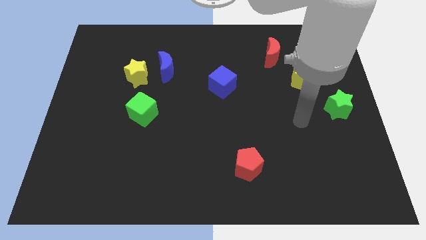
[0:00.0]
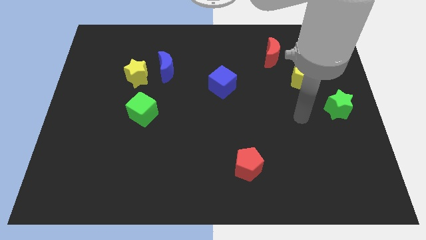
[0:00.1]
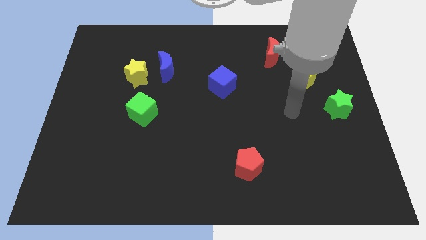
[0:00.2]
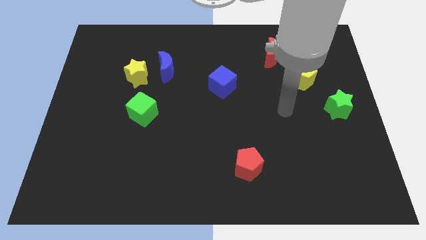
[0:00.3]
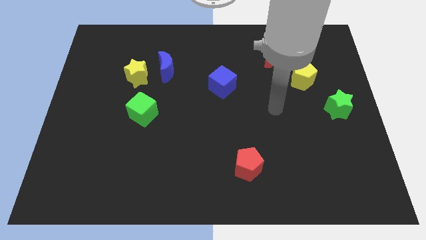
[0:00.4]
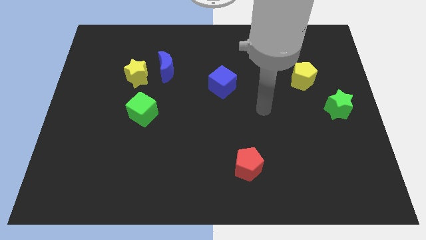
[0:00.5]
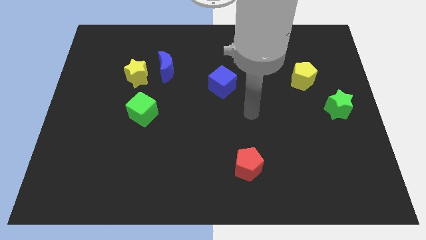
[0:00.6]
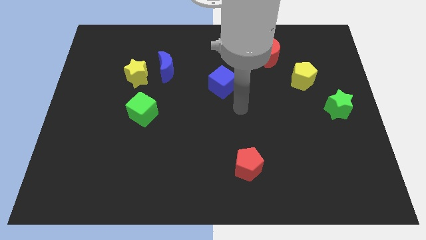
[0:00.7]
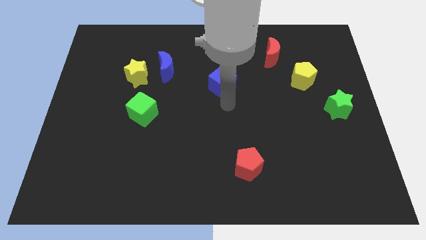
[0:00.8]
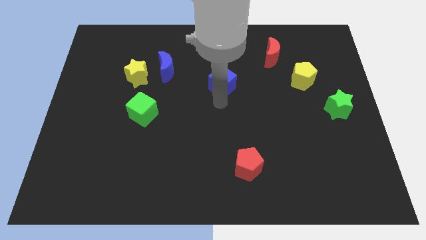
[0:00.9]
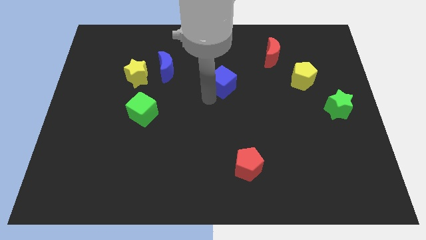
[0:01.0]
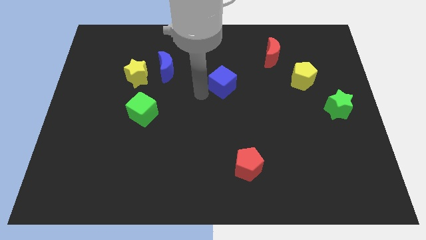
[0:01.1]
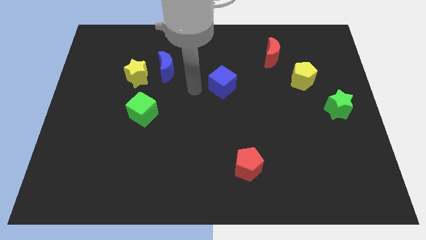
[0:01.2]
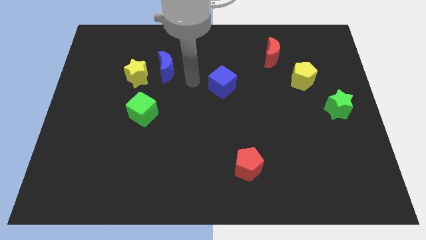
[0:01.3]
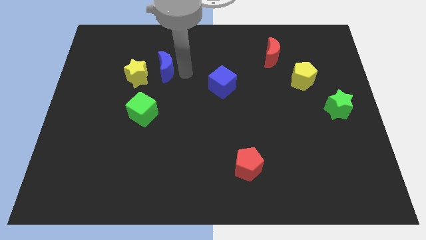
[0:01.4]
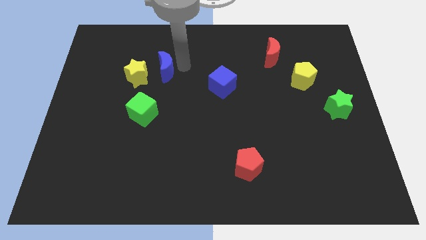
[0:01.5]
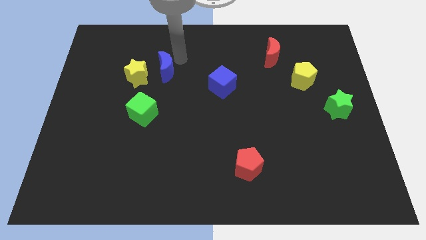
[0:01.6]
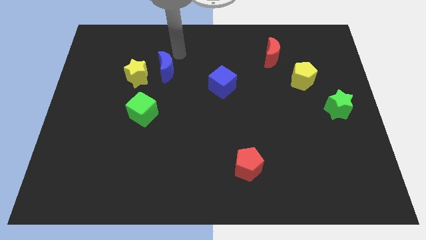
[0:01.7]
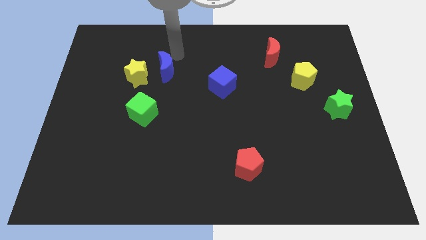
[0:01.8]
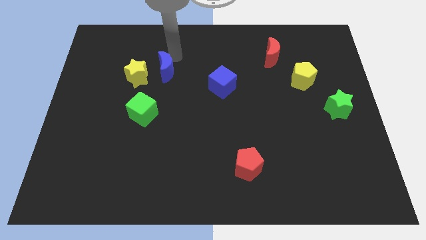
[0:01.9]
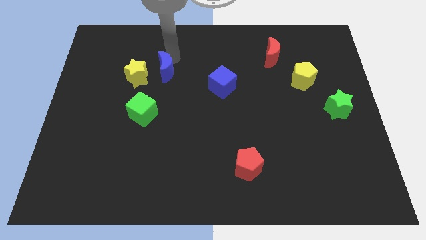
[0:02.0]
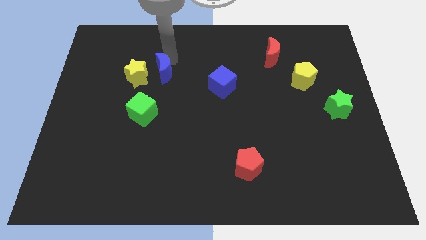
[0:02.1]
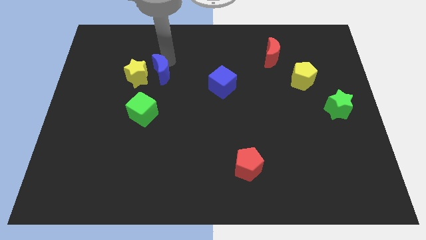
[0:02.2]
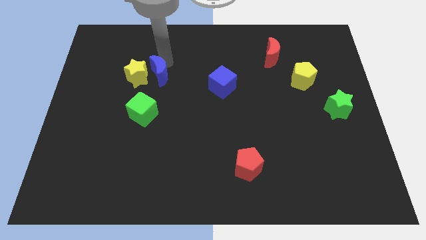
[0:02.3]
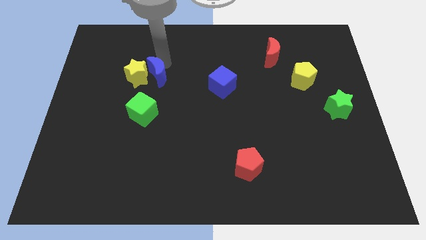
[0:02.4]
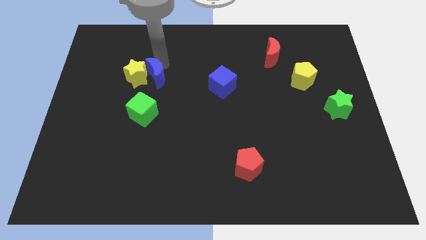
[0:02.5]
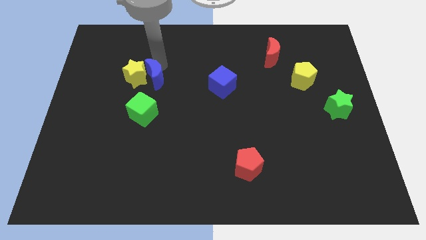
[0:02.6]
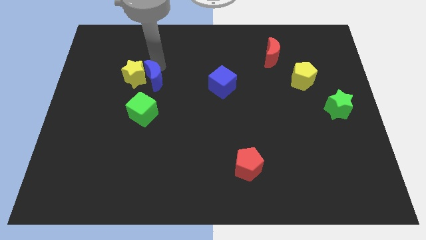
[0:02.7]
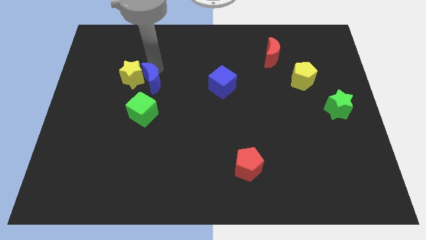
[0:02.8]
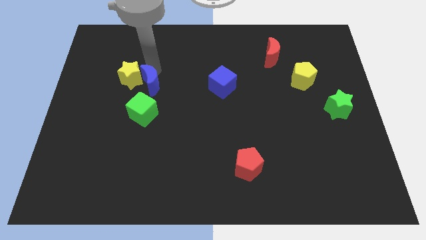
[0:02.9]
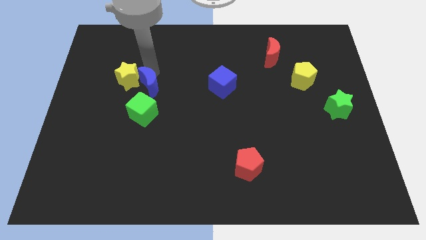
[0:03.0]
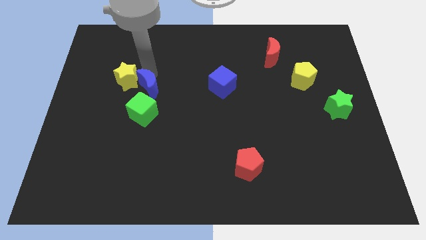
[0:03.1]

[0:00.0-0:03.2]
slide the blue moon slightly downwards and then to the left

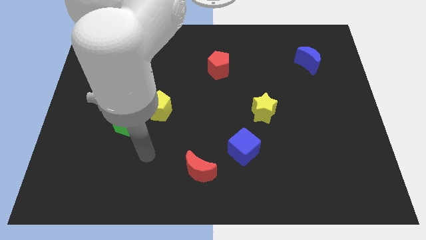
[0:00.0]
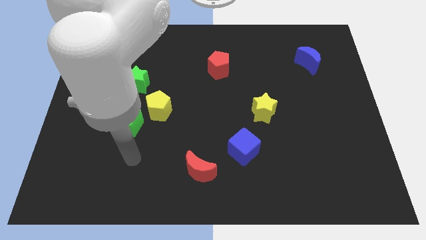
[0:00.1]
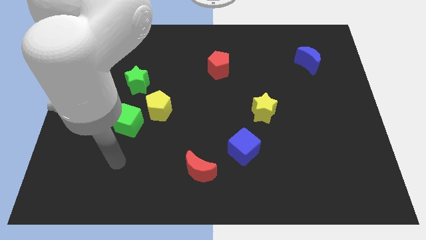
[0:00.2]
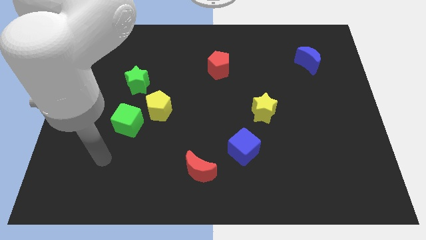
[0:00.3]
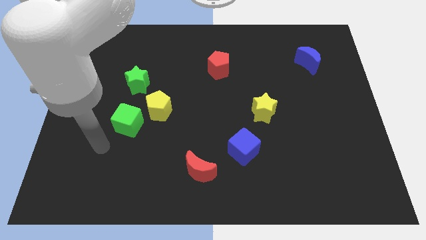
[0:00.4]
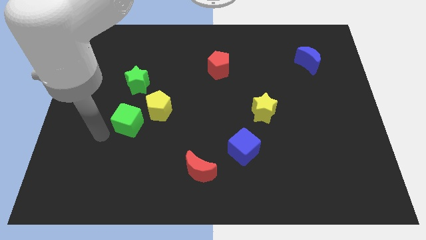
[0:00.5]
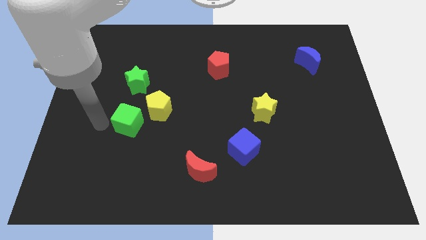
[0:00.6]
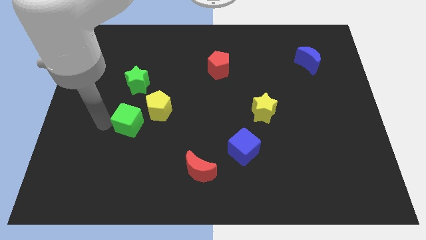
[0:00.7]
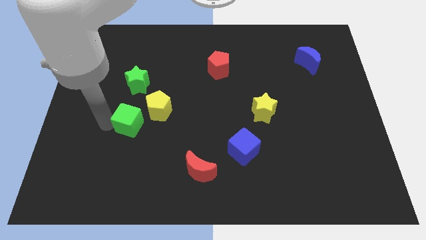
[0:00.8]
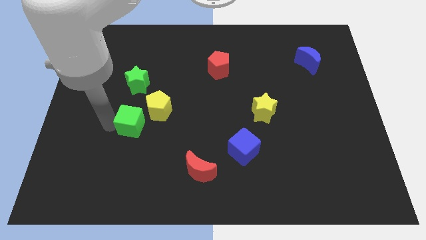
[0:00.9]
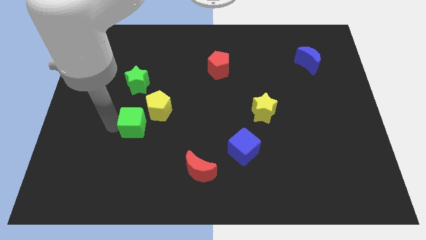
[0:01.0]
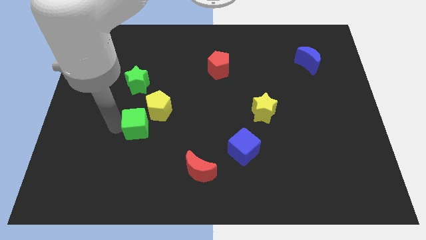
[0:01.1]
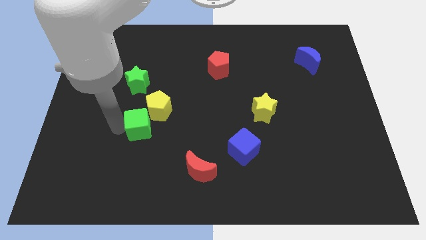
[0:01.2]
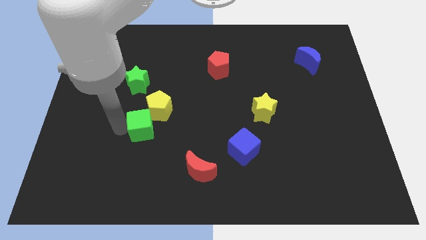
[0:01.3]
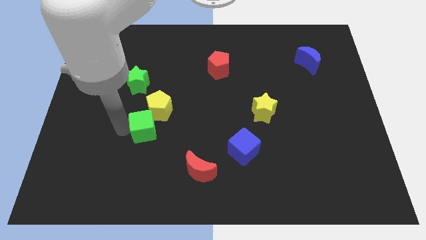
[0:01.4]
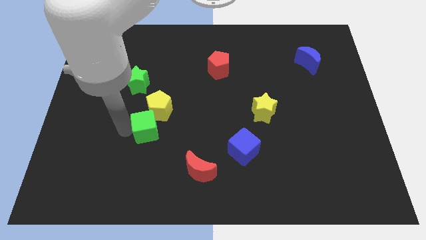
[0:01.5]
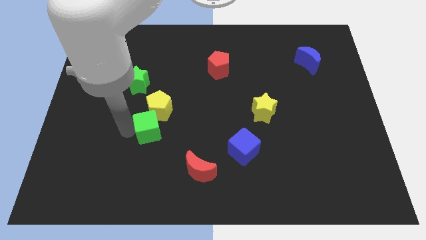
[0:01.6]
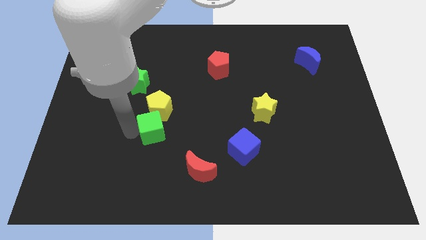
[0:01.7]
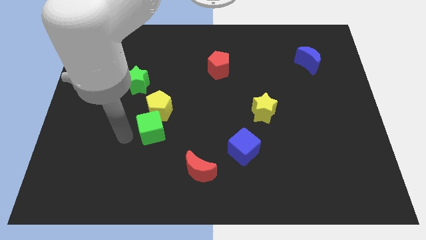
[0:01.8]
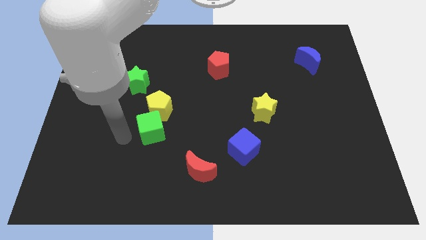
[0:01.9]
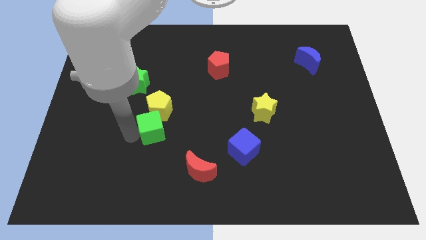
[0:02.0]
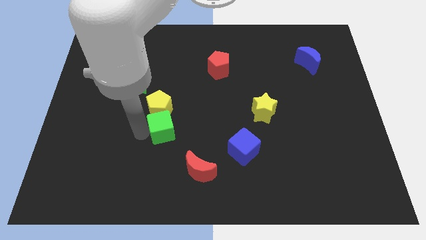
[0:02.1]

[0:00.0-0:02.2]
push the green cube to the right a little bit

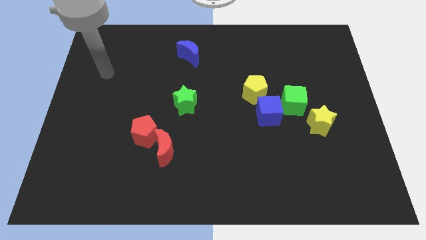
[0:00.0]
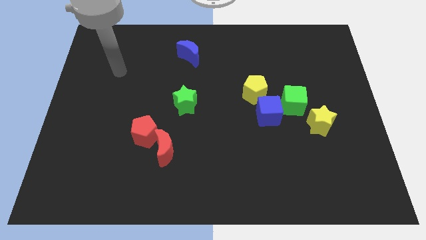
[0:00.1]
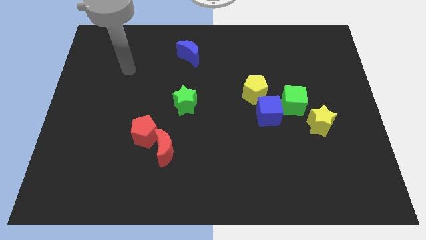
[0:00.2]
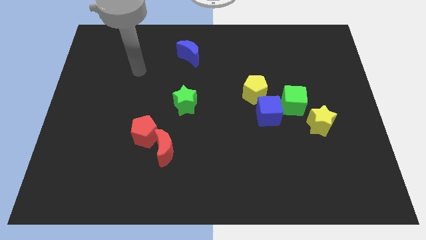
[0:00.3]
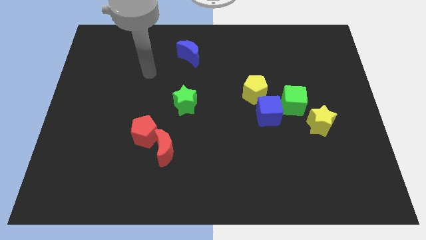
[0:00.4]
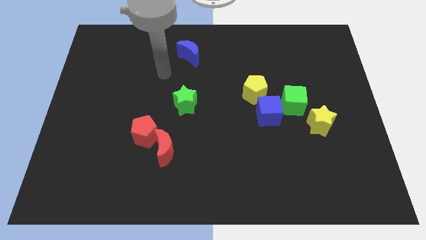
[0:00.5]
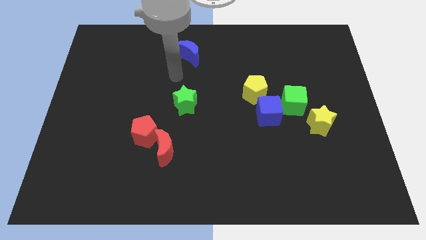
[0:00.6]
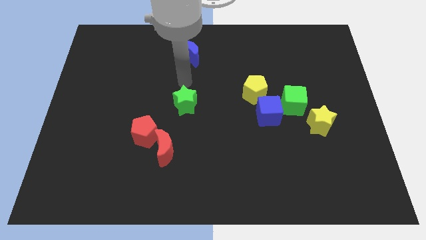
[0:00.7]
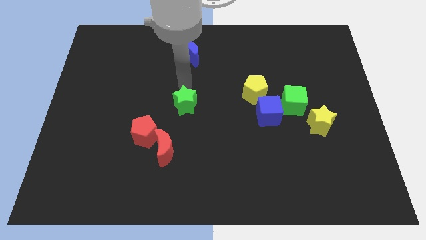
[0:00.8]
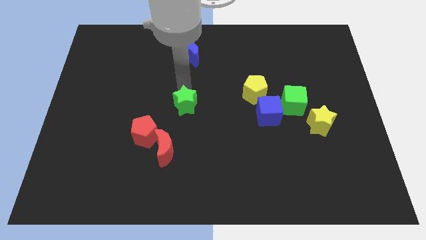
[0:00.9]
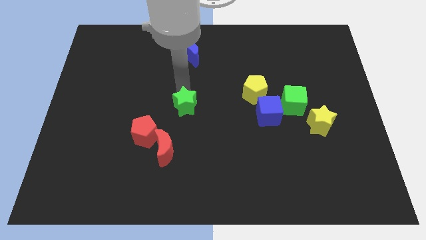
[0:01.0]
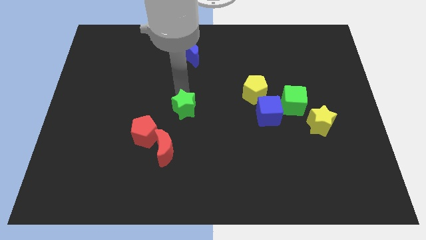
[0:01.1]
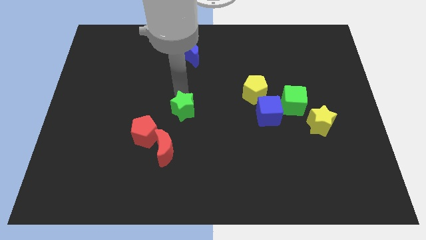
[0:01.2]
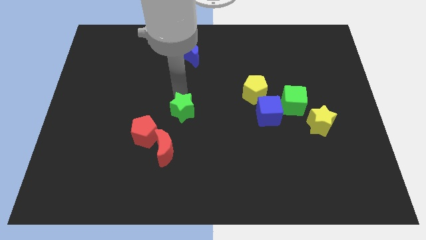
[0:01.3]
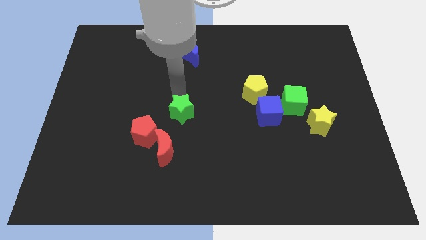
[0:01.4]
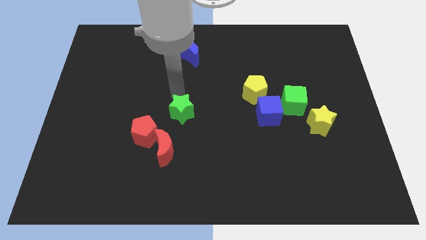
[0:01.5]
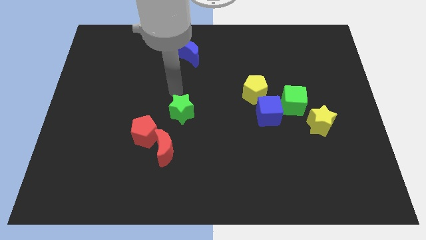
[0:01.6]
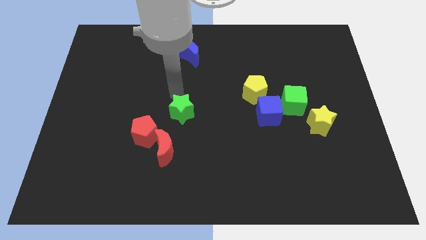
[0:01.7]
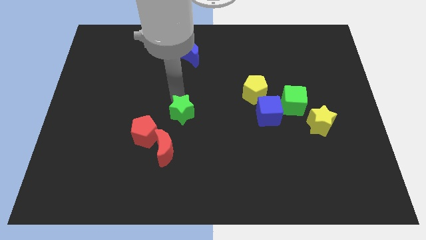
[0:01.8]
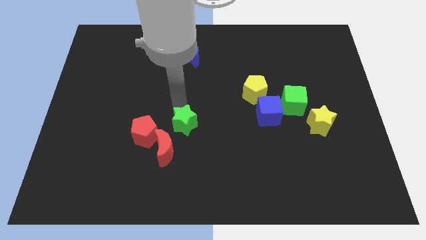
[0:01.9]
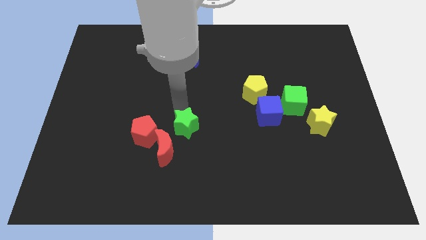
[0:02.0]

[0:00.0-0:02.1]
slightly push the green star downwards

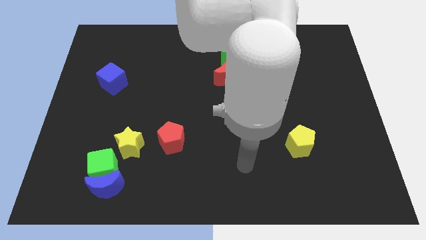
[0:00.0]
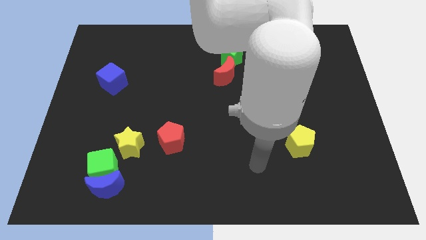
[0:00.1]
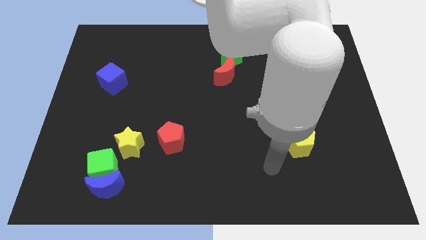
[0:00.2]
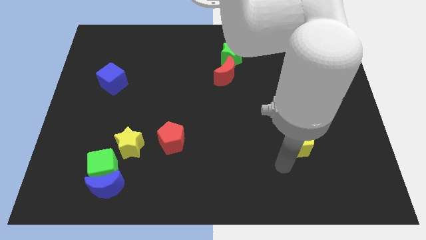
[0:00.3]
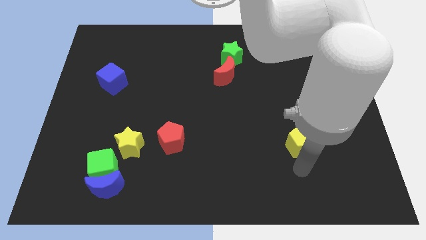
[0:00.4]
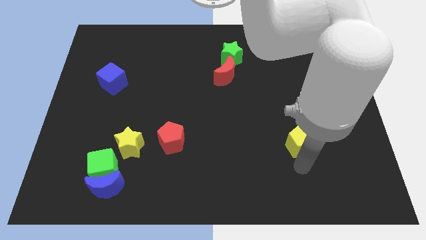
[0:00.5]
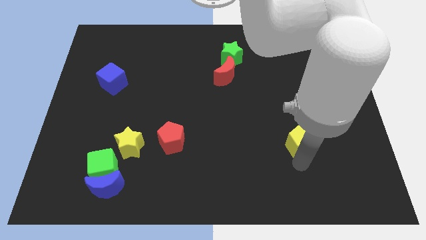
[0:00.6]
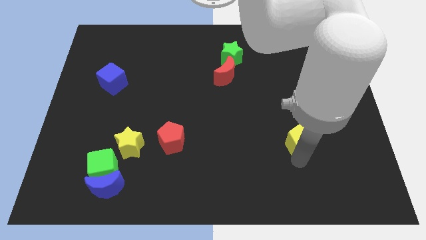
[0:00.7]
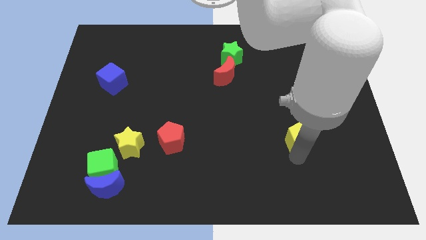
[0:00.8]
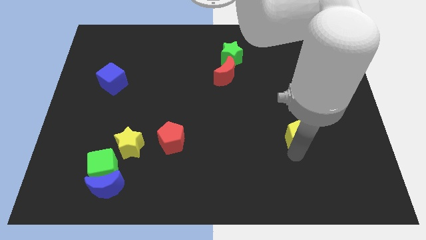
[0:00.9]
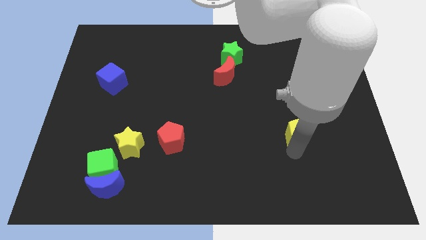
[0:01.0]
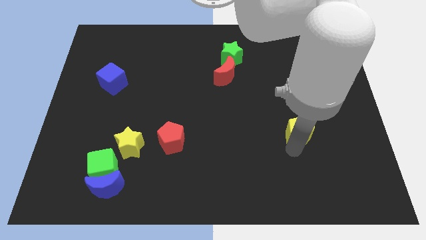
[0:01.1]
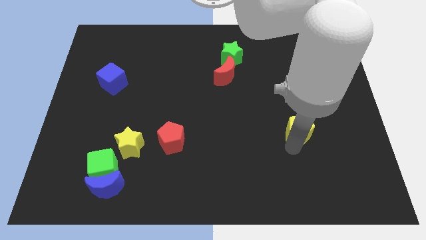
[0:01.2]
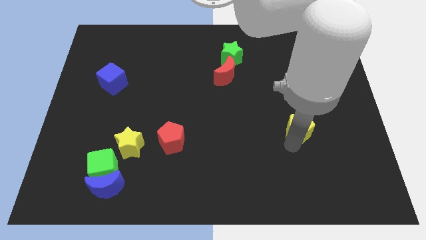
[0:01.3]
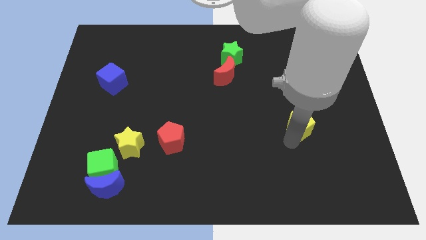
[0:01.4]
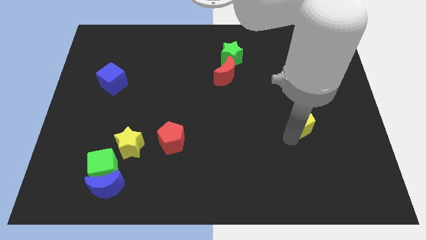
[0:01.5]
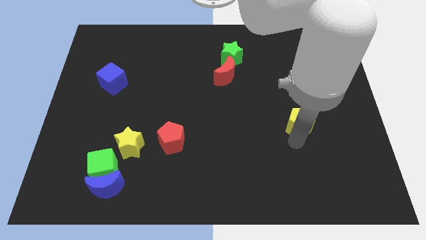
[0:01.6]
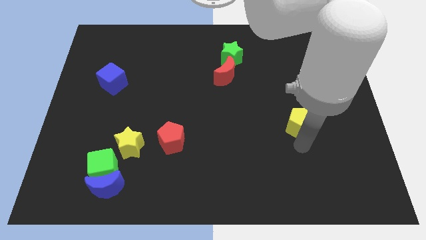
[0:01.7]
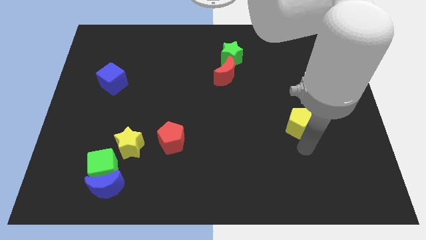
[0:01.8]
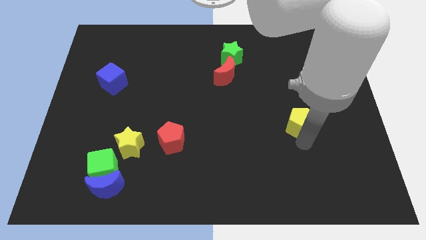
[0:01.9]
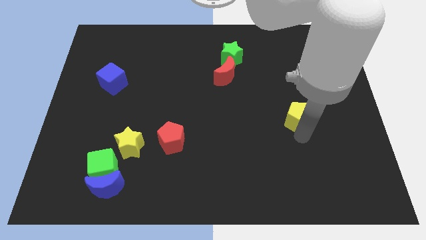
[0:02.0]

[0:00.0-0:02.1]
slightly move the yellow pentagon upwards
